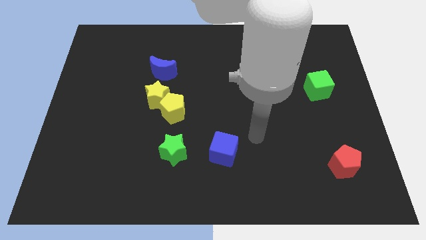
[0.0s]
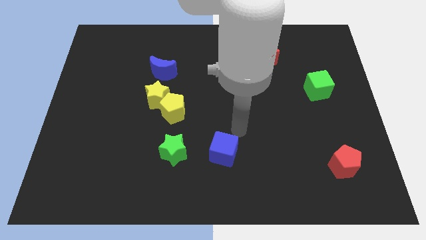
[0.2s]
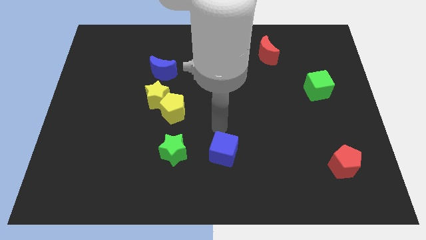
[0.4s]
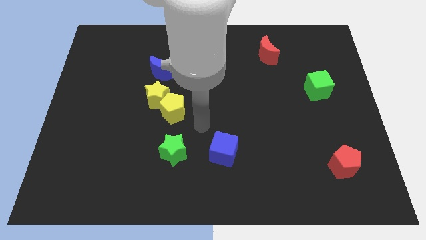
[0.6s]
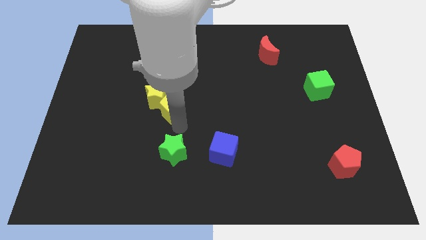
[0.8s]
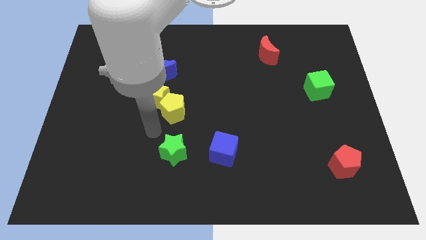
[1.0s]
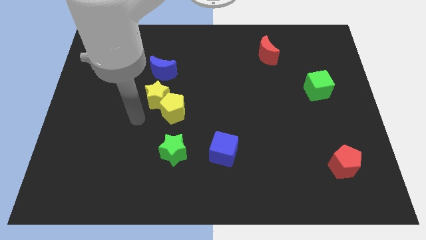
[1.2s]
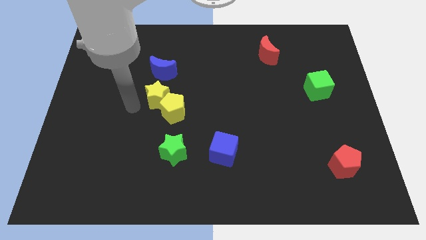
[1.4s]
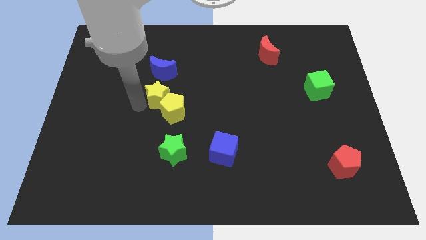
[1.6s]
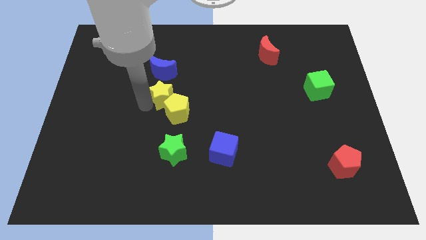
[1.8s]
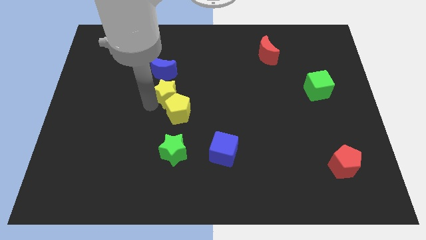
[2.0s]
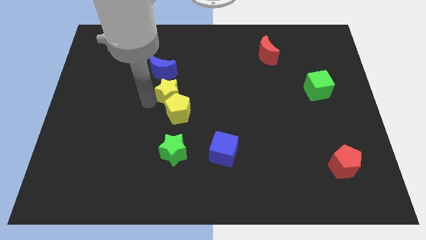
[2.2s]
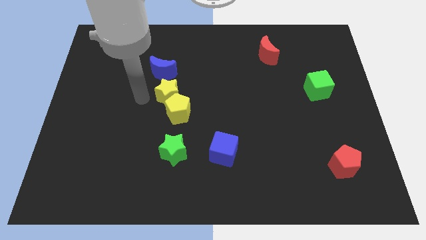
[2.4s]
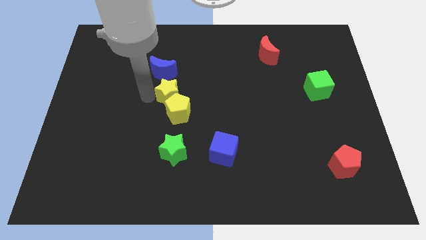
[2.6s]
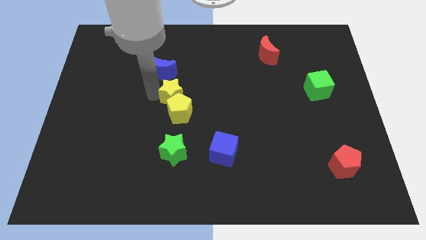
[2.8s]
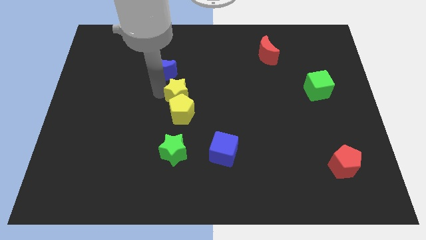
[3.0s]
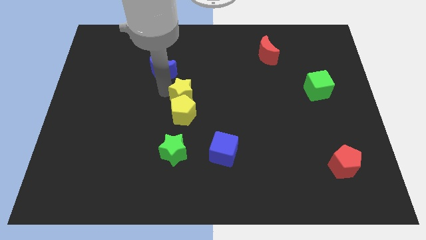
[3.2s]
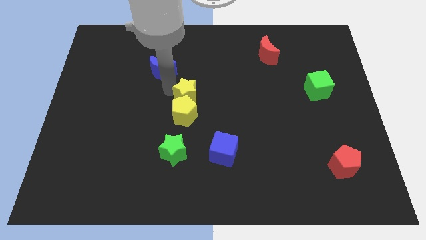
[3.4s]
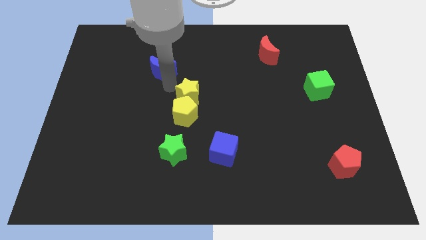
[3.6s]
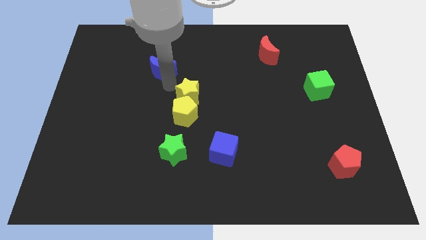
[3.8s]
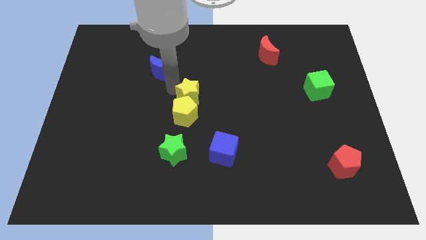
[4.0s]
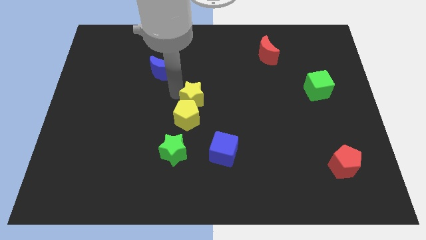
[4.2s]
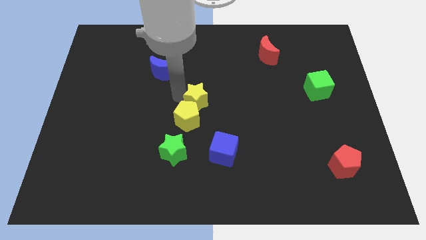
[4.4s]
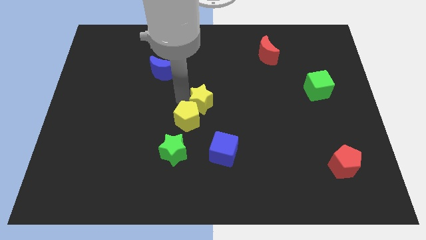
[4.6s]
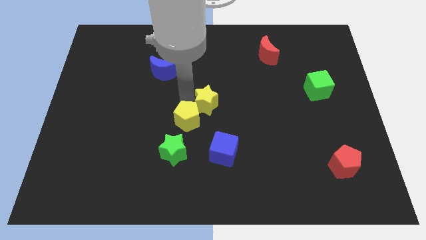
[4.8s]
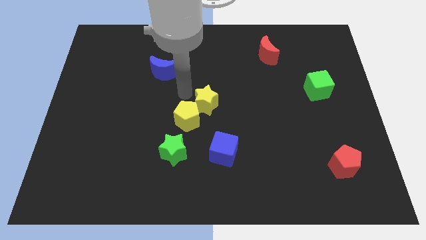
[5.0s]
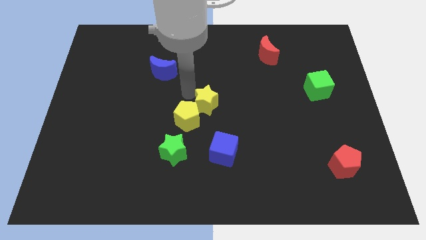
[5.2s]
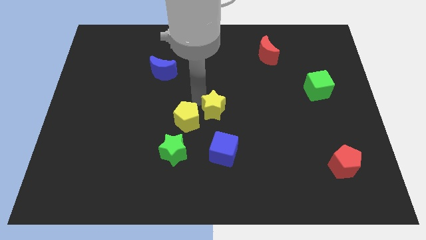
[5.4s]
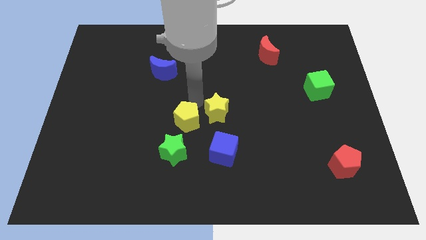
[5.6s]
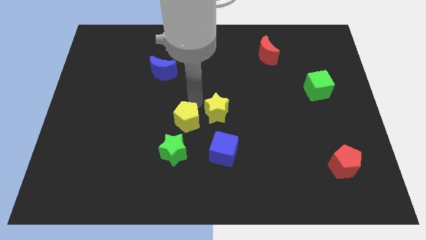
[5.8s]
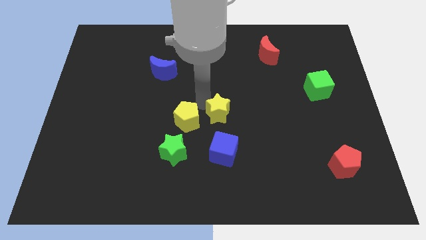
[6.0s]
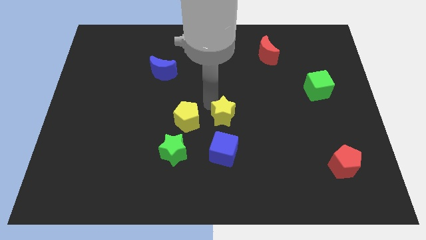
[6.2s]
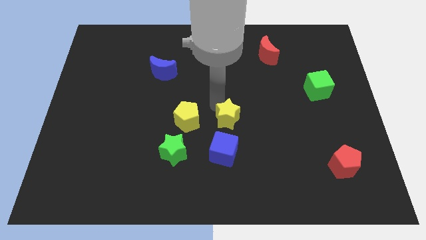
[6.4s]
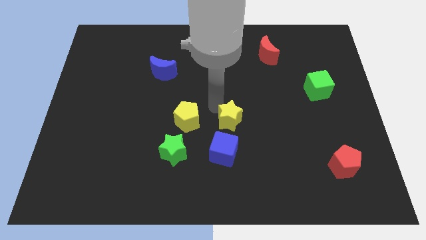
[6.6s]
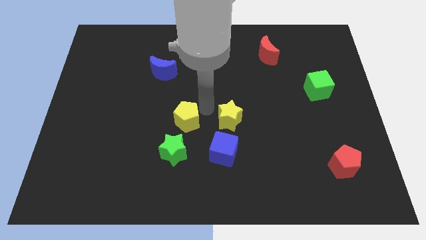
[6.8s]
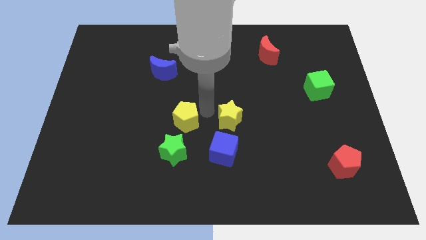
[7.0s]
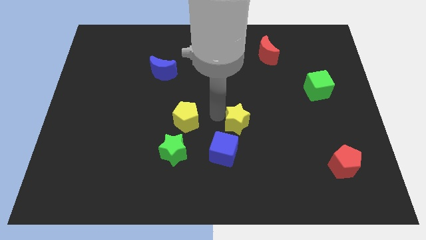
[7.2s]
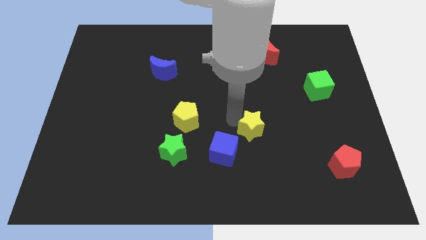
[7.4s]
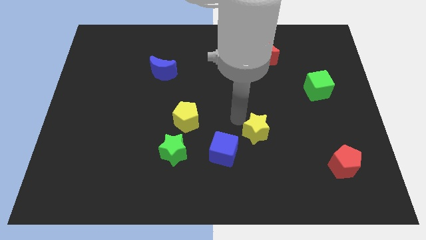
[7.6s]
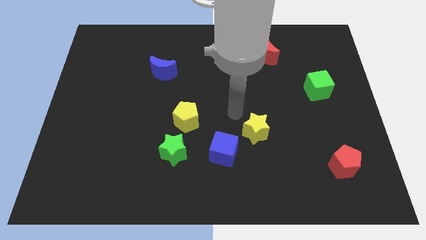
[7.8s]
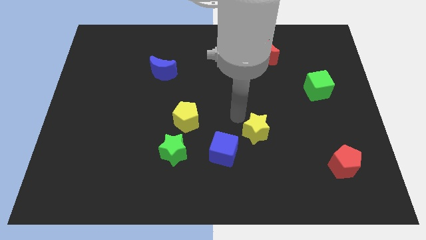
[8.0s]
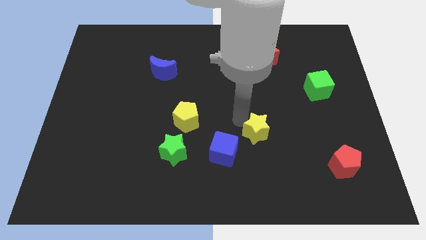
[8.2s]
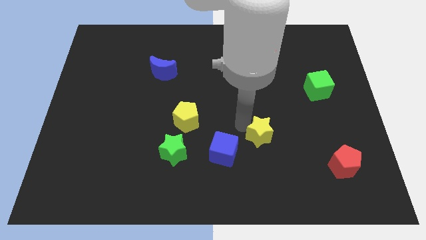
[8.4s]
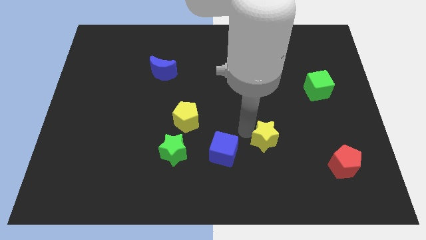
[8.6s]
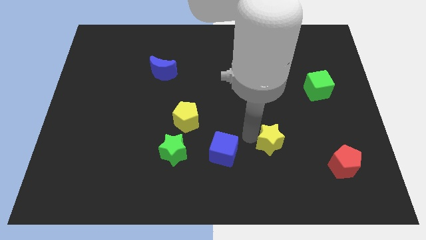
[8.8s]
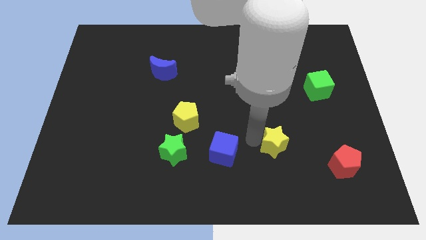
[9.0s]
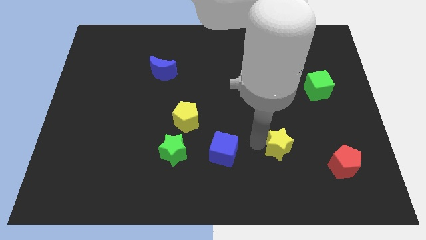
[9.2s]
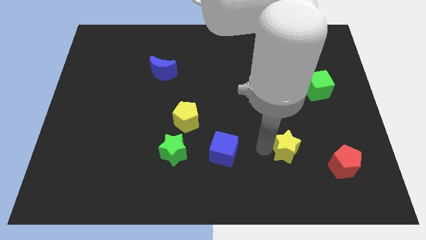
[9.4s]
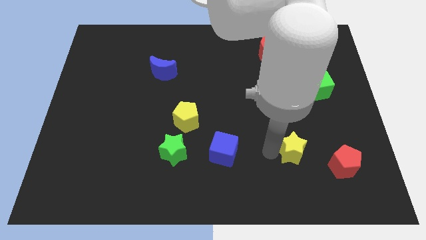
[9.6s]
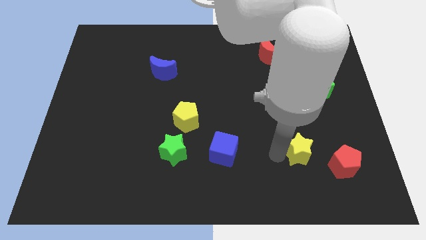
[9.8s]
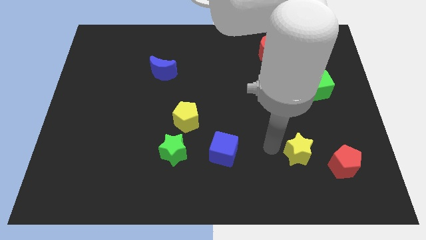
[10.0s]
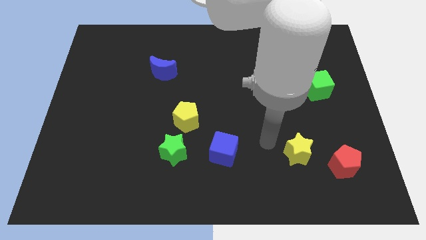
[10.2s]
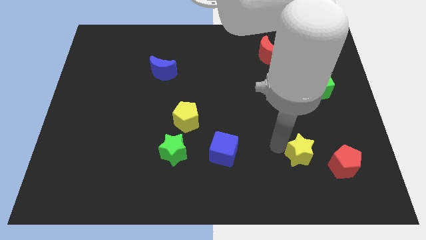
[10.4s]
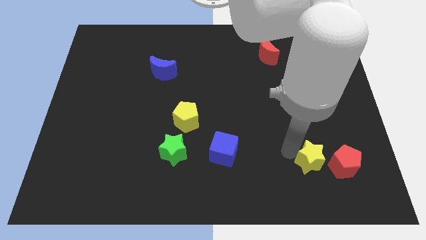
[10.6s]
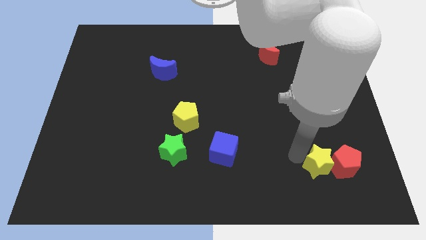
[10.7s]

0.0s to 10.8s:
move the yellow star next to the red pentagon

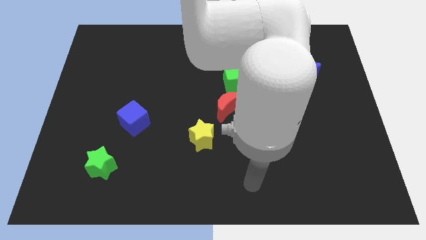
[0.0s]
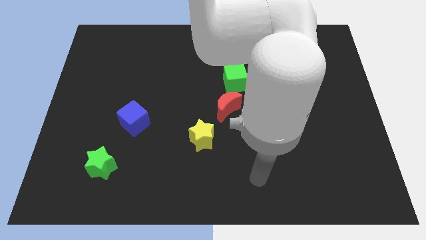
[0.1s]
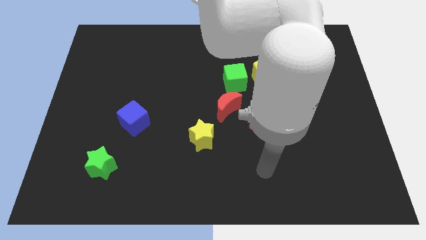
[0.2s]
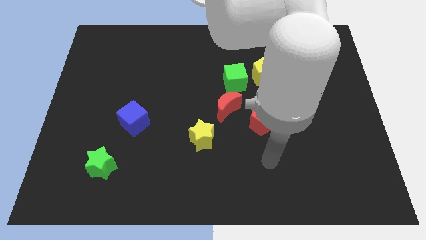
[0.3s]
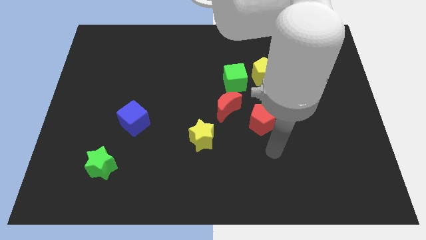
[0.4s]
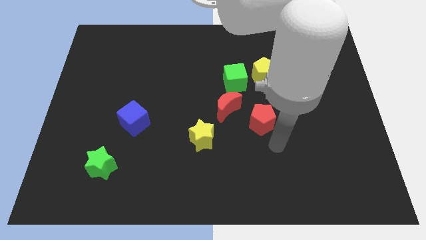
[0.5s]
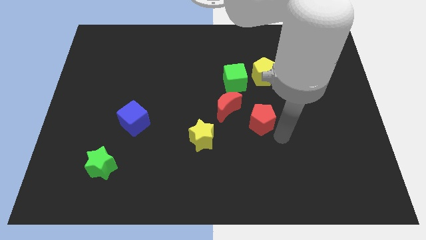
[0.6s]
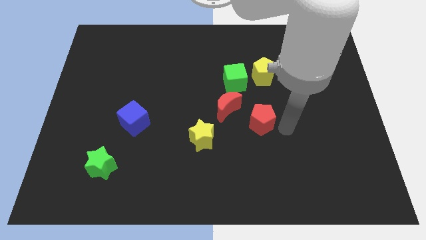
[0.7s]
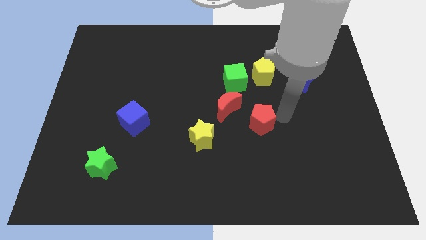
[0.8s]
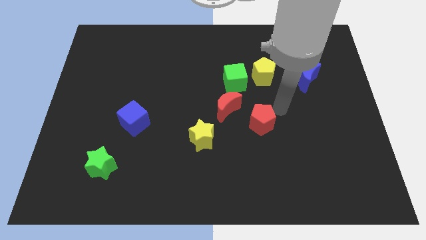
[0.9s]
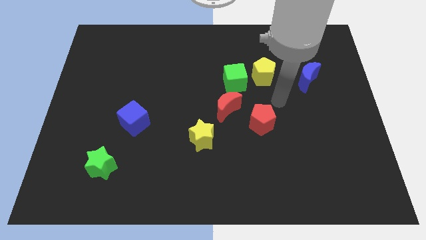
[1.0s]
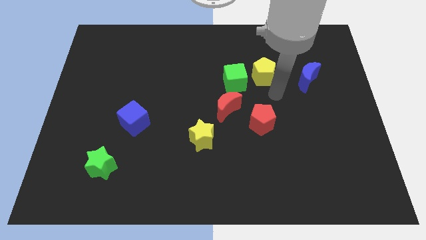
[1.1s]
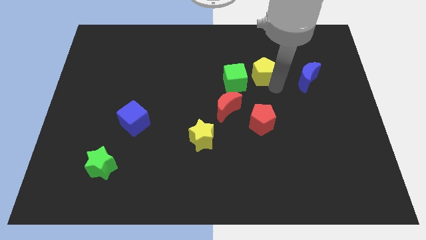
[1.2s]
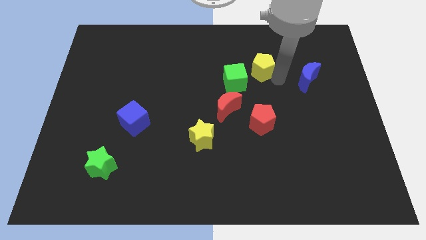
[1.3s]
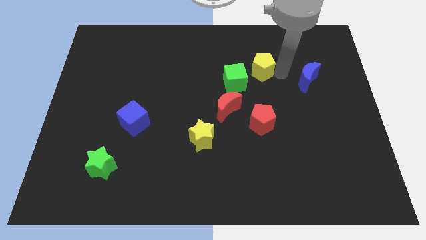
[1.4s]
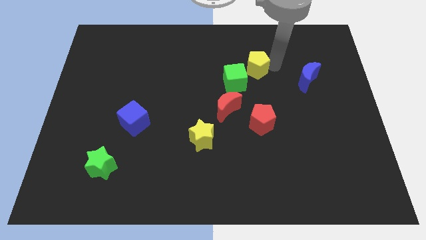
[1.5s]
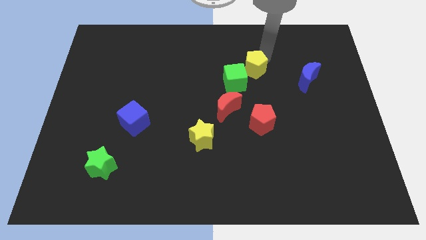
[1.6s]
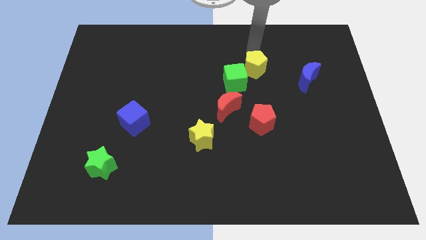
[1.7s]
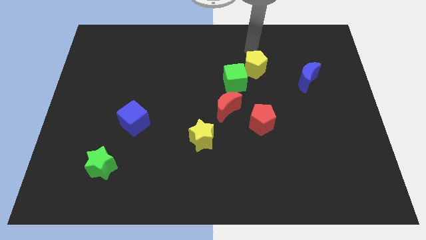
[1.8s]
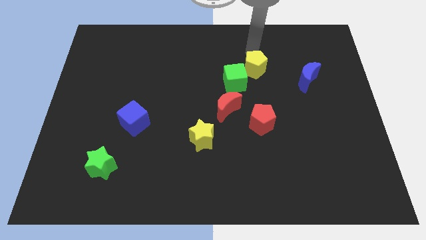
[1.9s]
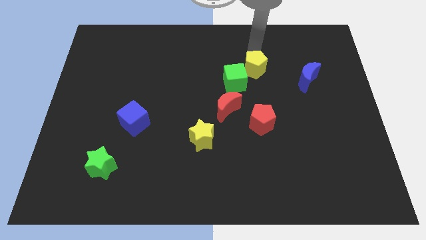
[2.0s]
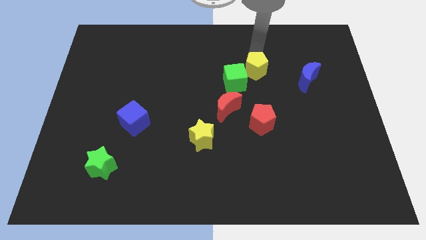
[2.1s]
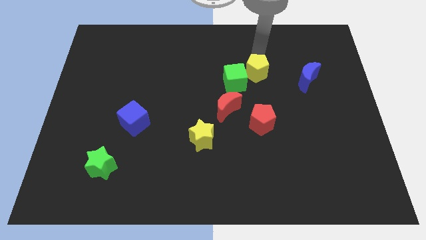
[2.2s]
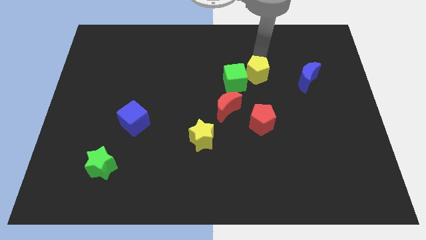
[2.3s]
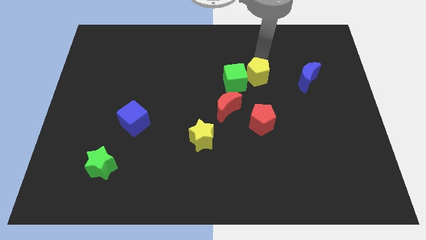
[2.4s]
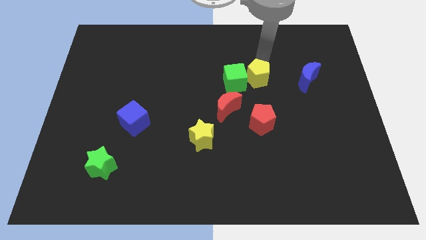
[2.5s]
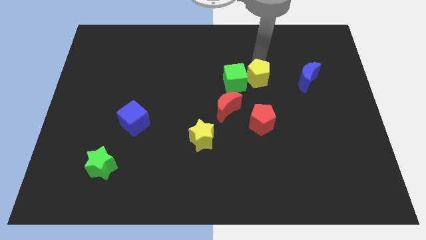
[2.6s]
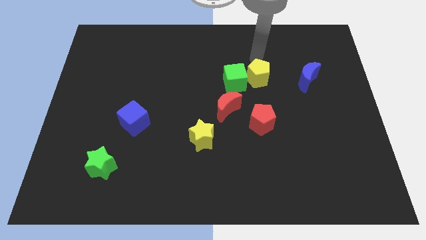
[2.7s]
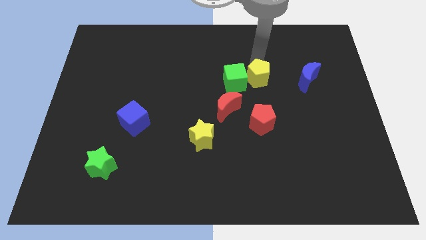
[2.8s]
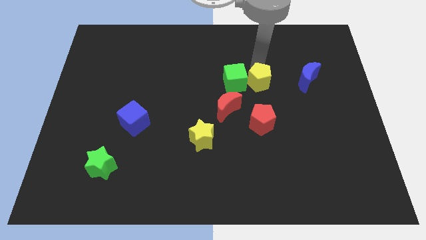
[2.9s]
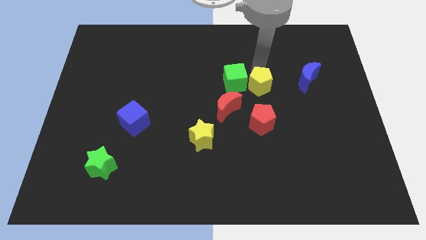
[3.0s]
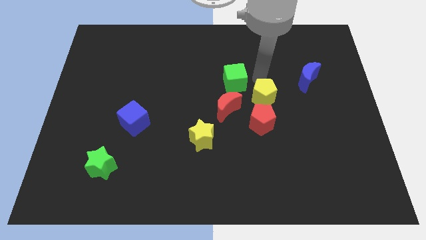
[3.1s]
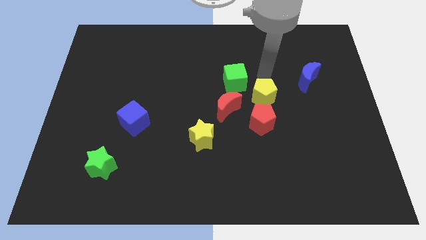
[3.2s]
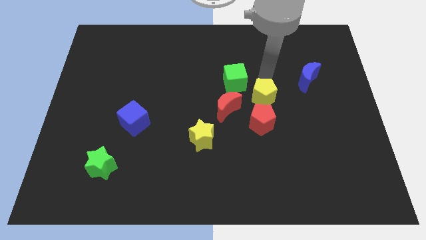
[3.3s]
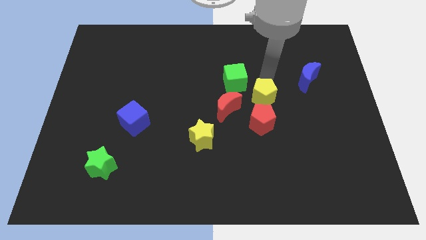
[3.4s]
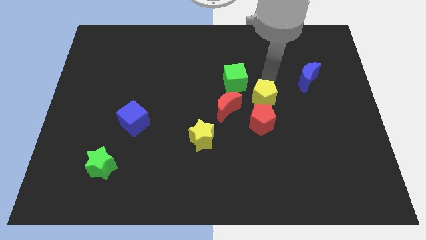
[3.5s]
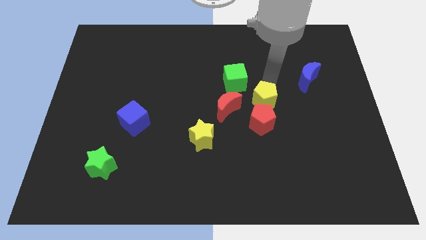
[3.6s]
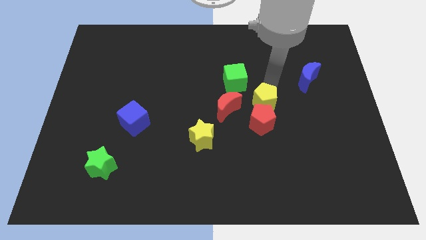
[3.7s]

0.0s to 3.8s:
move the yellow pentagon towards the red pentagon
